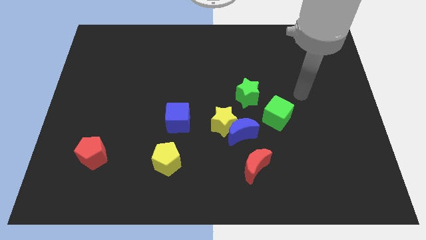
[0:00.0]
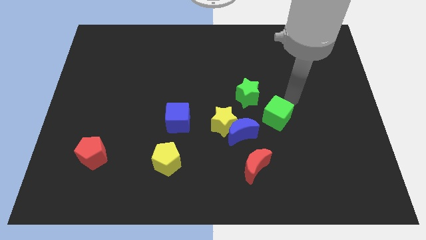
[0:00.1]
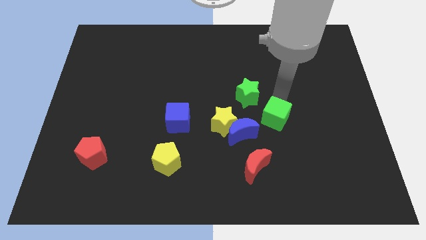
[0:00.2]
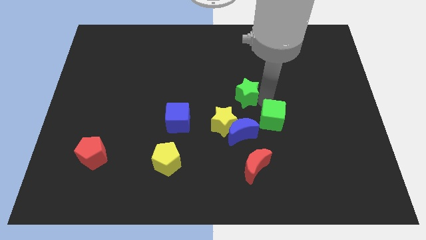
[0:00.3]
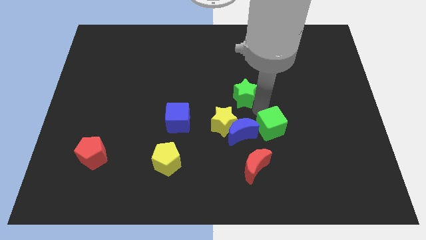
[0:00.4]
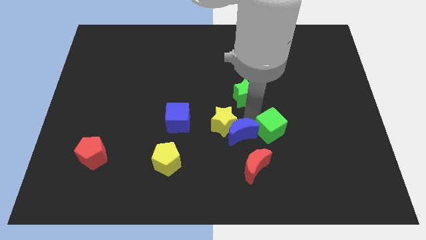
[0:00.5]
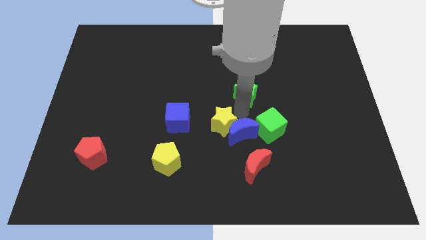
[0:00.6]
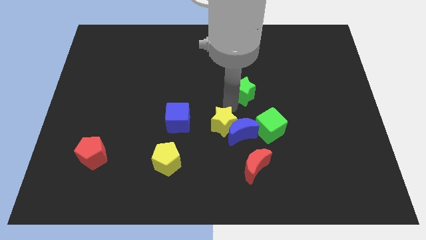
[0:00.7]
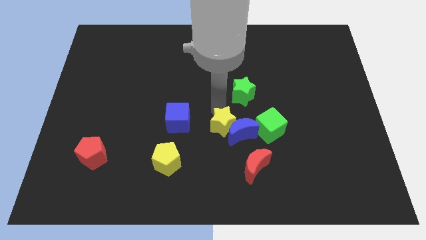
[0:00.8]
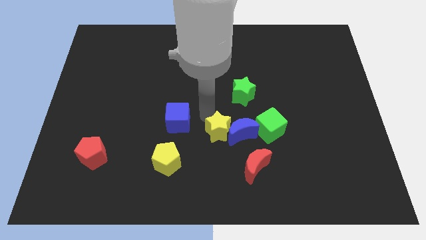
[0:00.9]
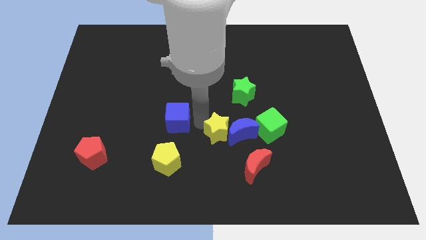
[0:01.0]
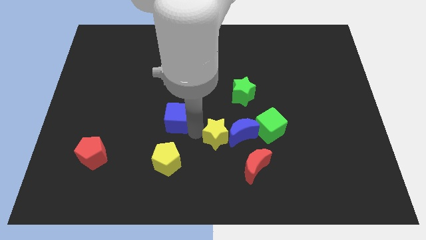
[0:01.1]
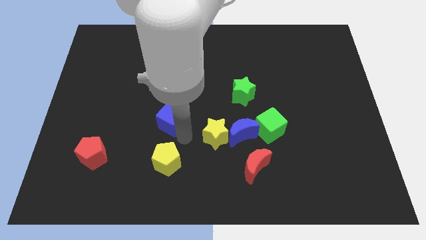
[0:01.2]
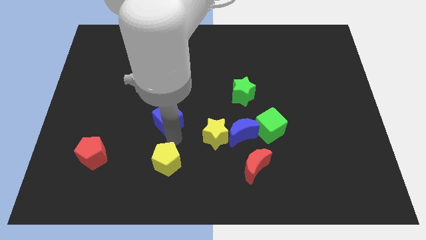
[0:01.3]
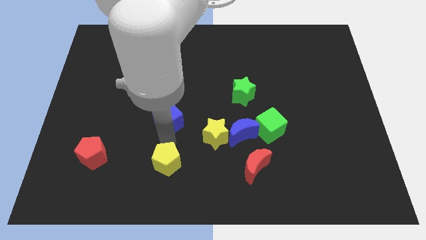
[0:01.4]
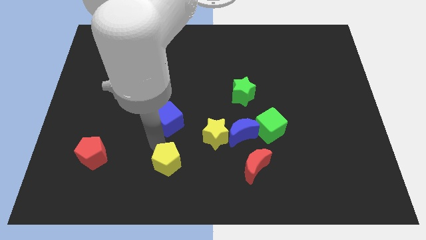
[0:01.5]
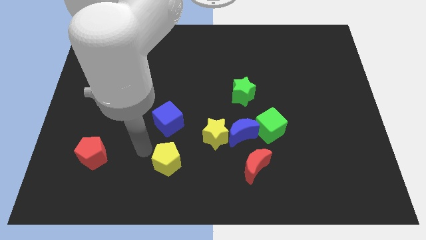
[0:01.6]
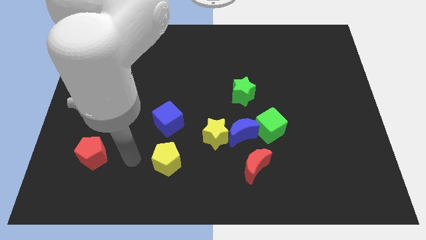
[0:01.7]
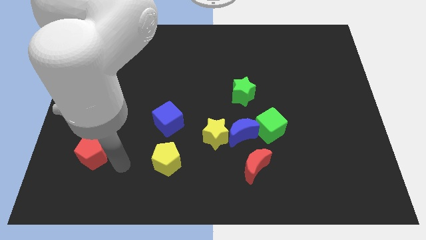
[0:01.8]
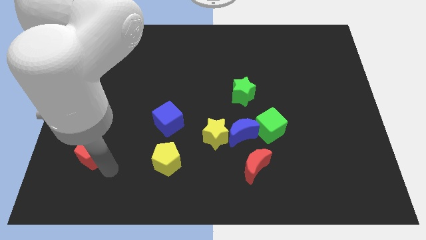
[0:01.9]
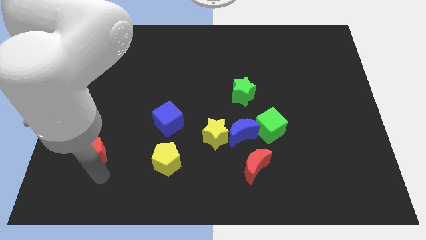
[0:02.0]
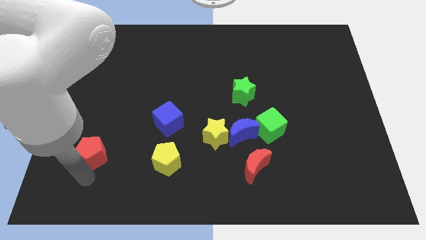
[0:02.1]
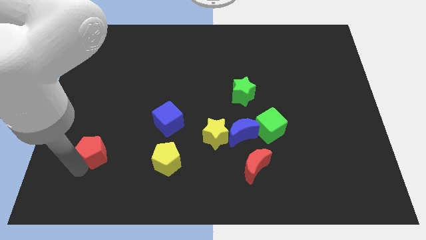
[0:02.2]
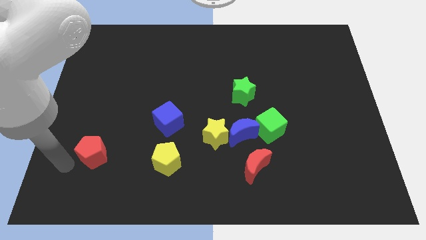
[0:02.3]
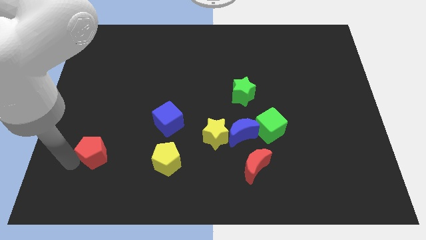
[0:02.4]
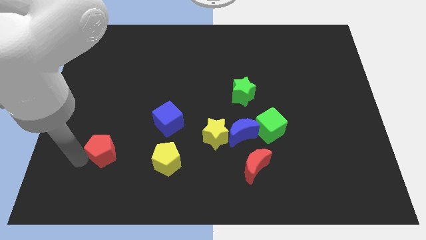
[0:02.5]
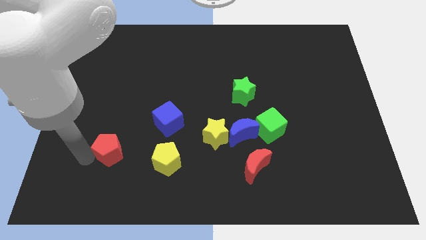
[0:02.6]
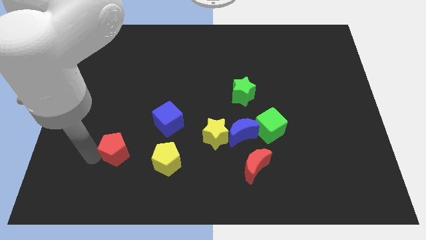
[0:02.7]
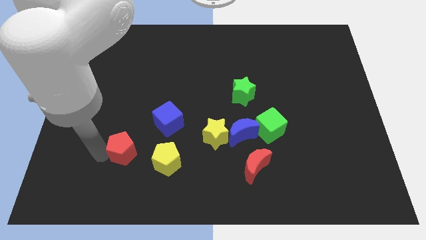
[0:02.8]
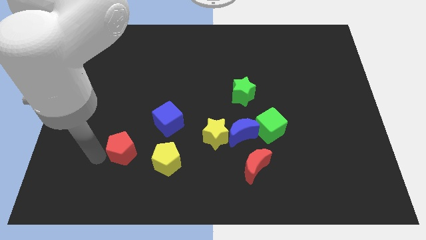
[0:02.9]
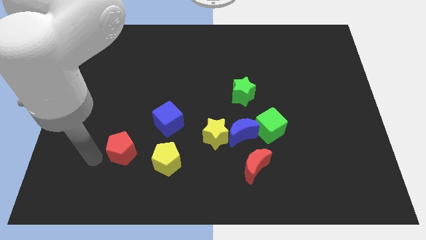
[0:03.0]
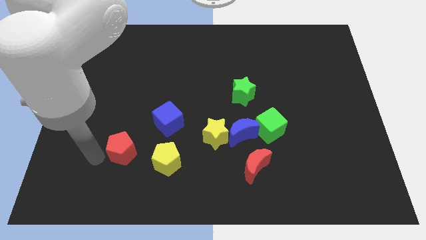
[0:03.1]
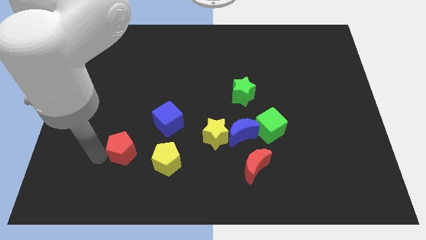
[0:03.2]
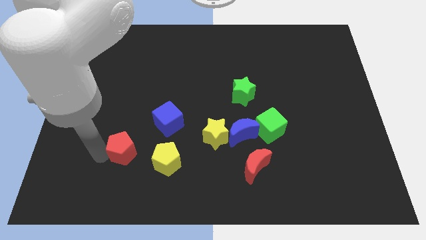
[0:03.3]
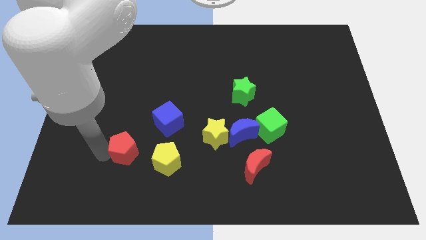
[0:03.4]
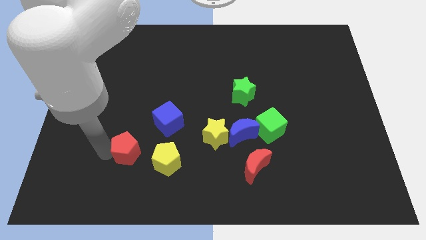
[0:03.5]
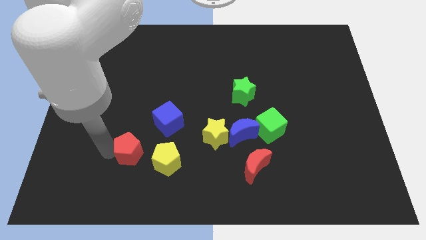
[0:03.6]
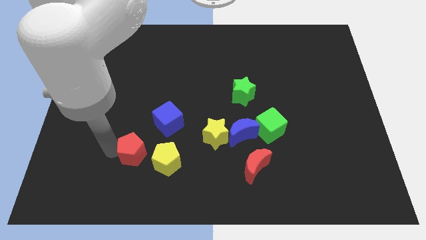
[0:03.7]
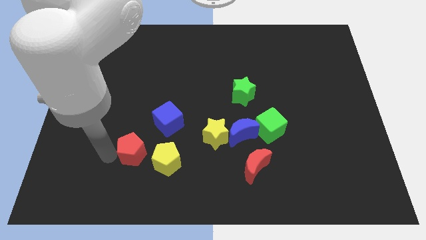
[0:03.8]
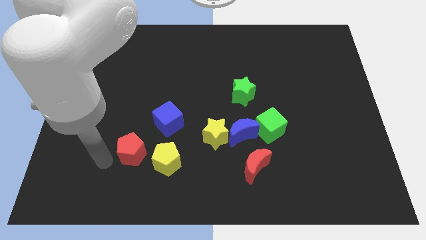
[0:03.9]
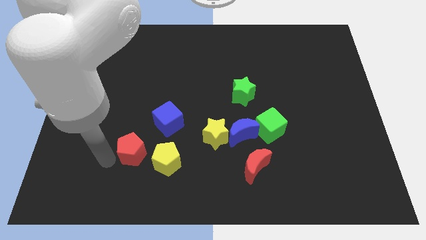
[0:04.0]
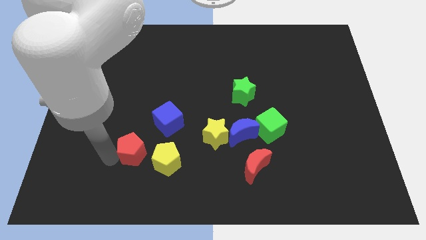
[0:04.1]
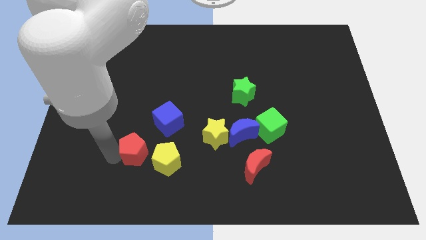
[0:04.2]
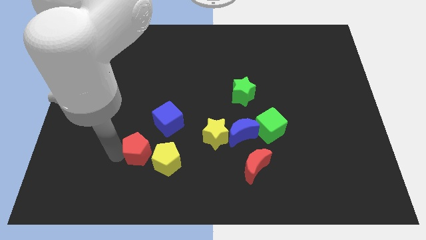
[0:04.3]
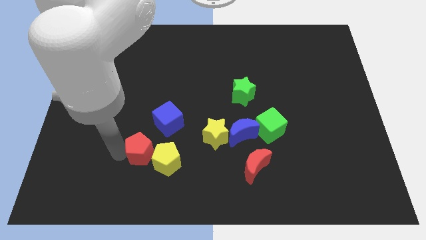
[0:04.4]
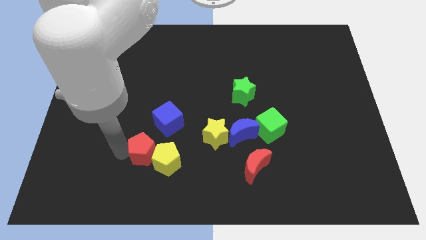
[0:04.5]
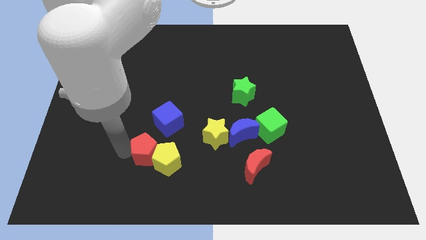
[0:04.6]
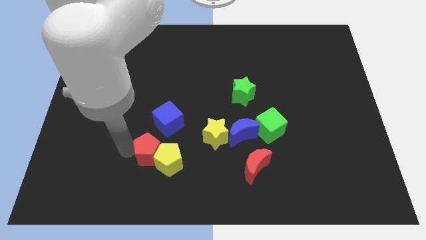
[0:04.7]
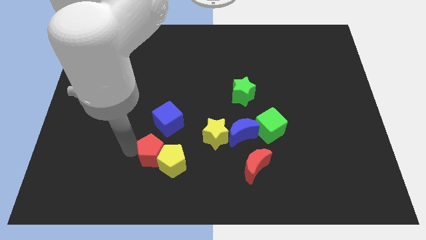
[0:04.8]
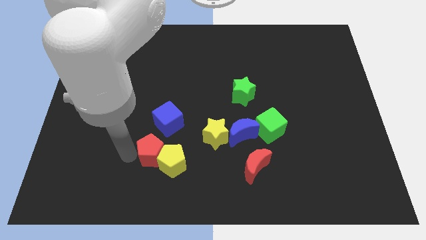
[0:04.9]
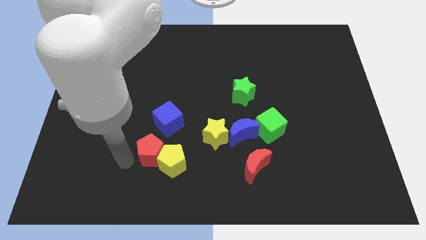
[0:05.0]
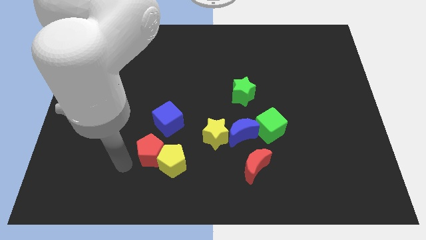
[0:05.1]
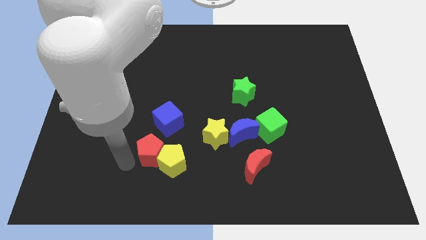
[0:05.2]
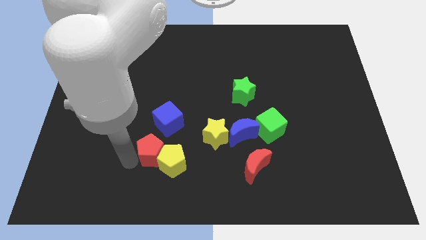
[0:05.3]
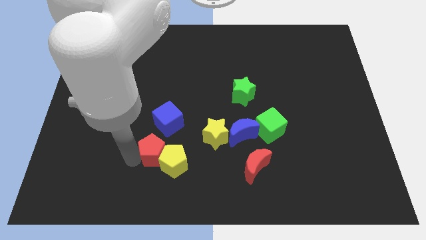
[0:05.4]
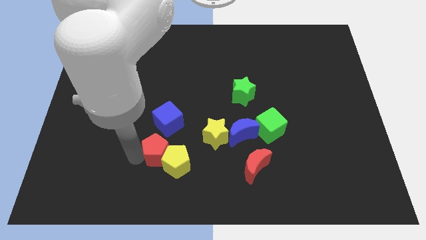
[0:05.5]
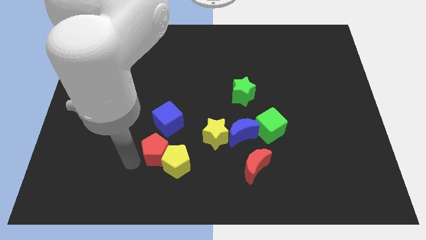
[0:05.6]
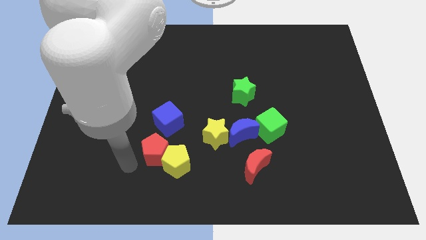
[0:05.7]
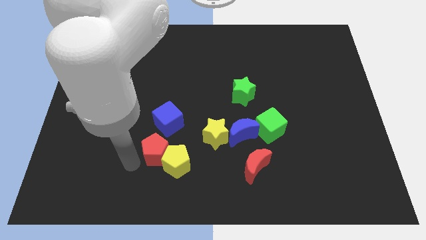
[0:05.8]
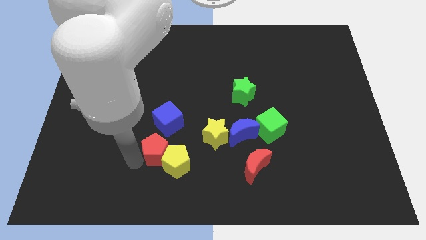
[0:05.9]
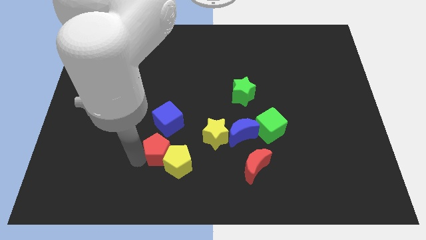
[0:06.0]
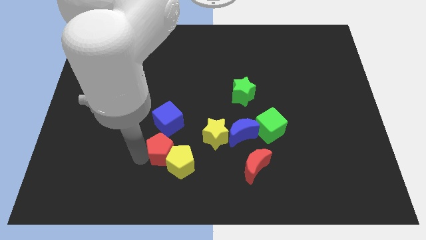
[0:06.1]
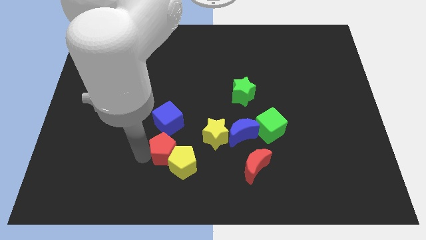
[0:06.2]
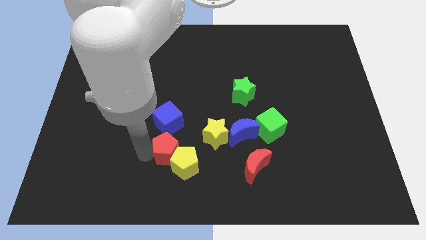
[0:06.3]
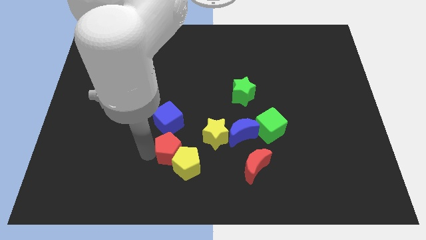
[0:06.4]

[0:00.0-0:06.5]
slide the red pentagon to the bottom right side of the blue cube

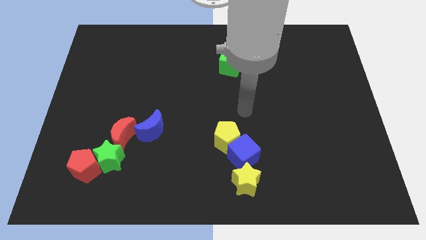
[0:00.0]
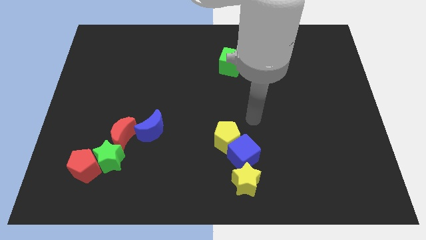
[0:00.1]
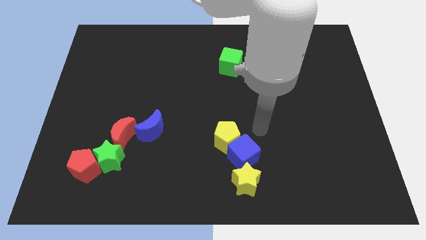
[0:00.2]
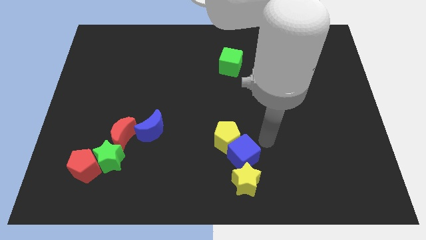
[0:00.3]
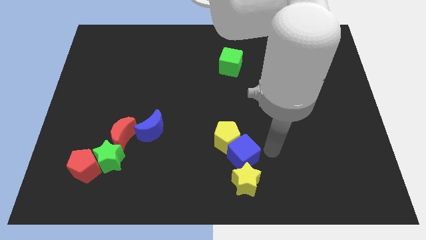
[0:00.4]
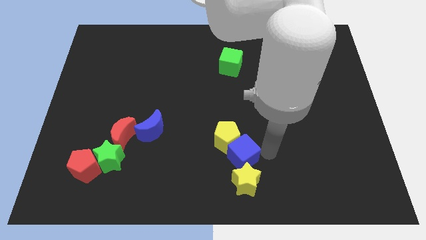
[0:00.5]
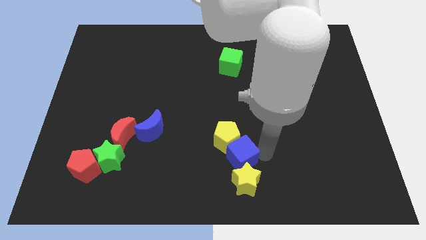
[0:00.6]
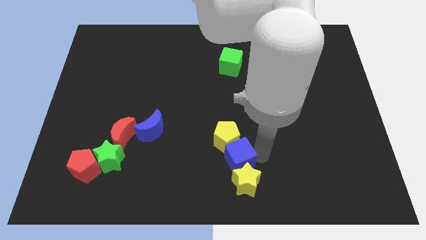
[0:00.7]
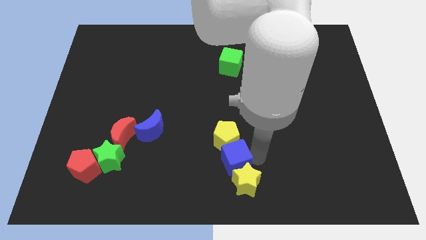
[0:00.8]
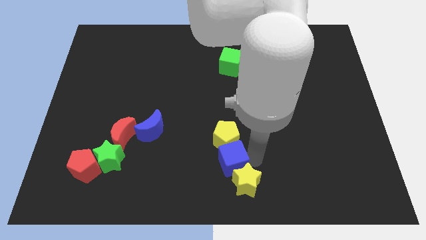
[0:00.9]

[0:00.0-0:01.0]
move the blue cube diagonally down and to the left of the yellow pentagon
